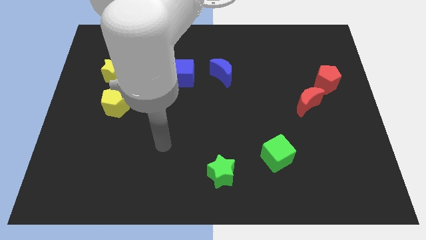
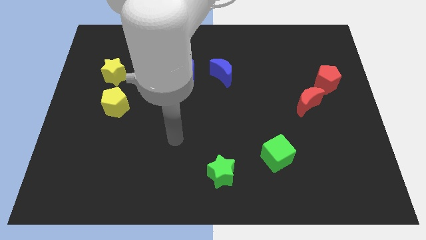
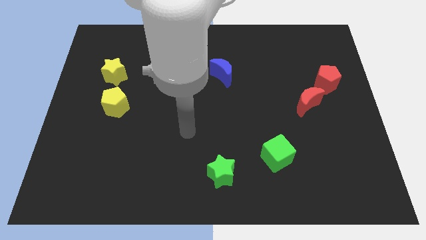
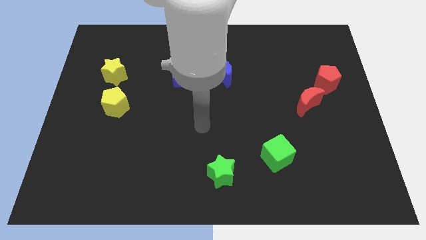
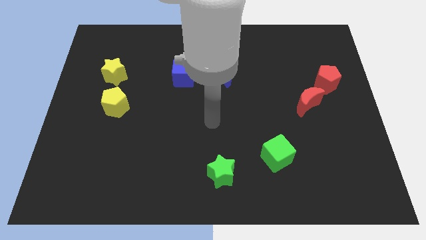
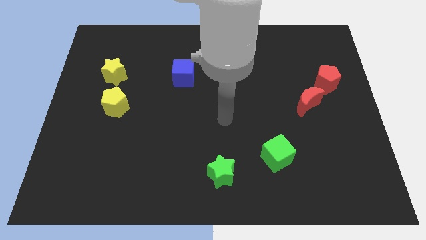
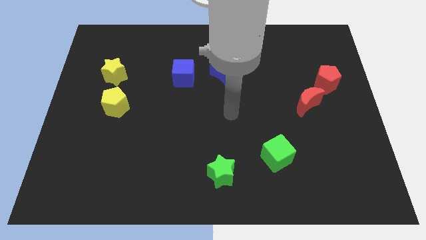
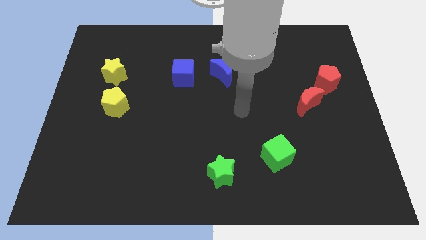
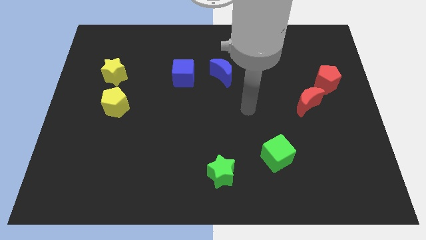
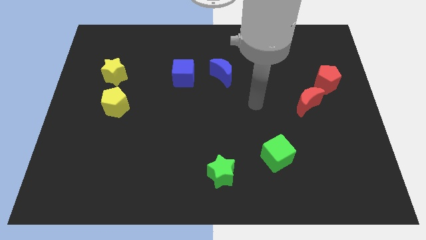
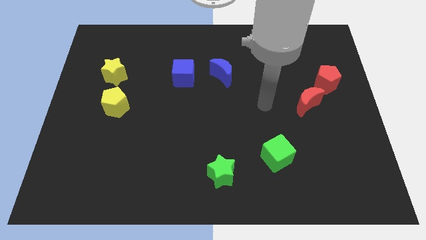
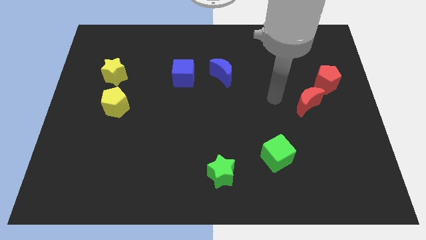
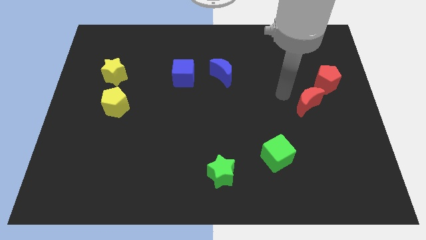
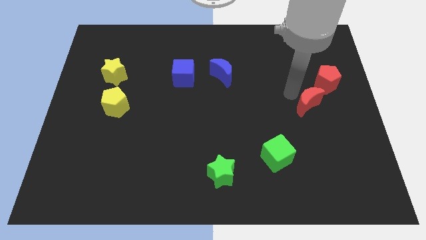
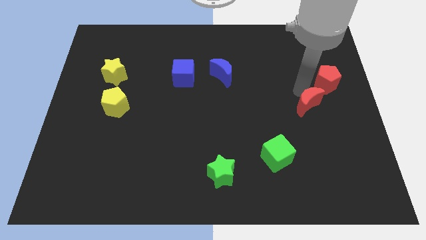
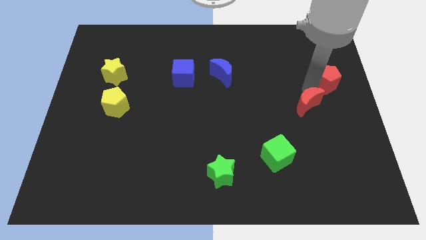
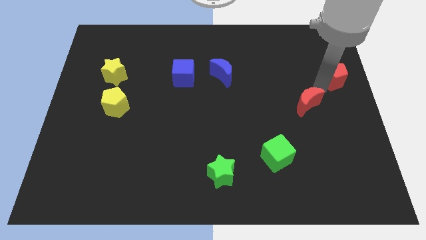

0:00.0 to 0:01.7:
separate the red moon from the red pentagon

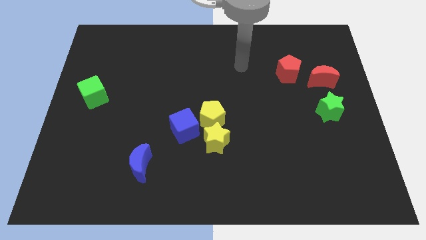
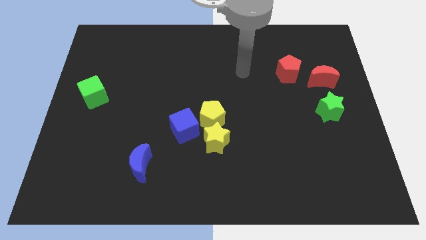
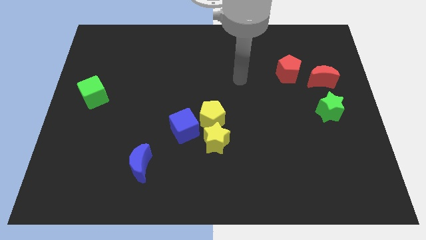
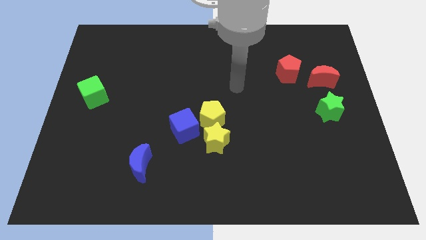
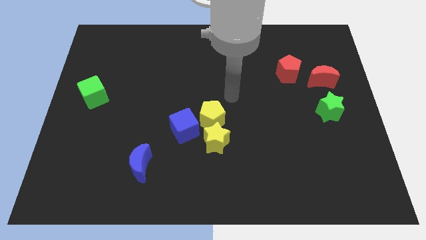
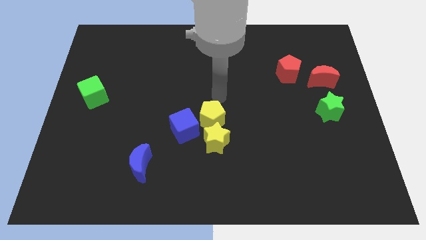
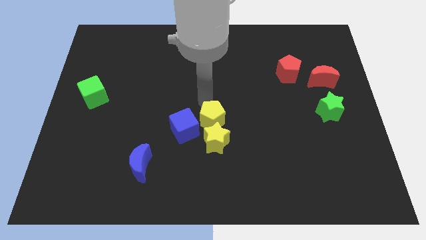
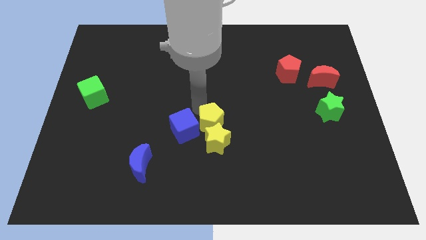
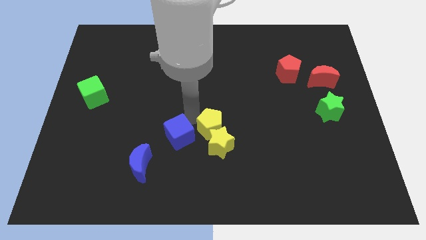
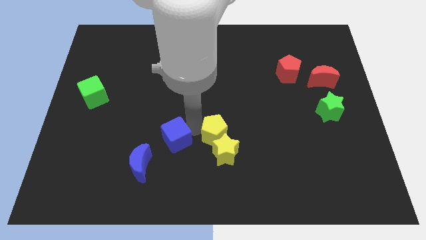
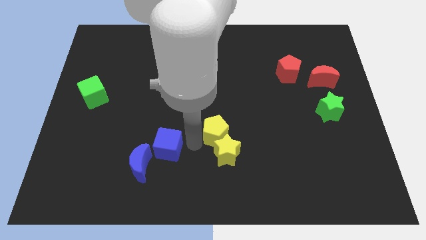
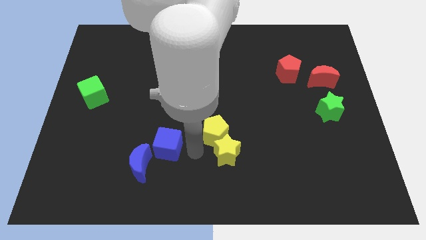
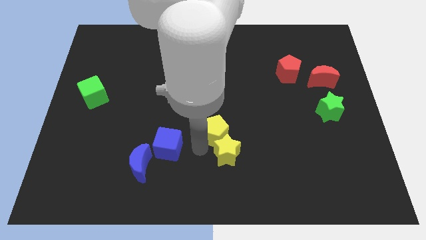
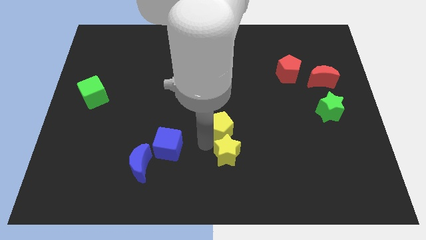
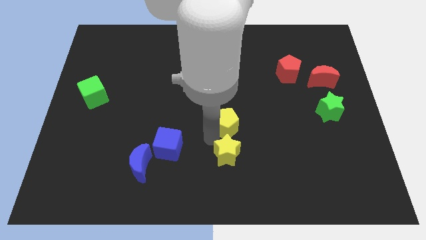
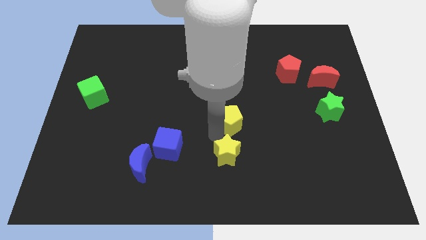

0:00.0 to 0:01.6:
separate the yellow pentagon from the yellow star and blue cube

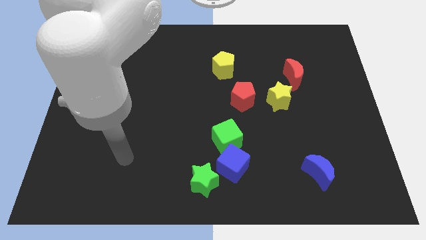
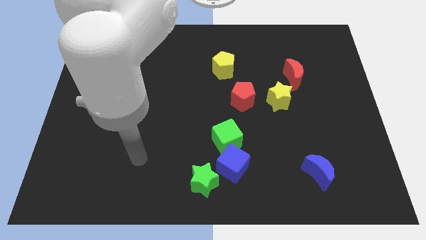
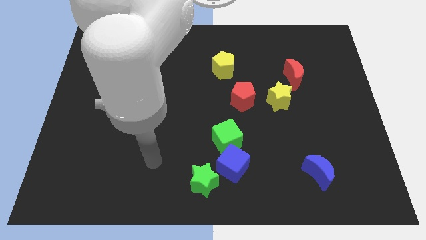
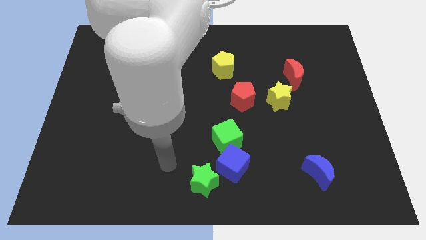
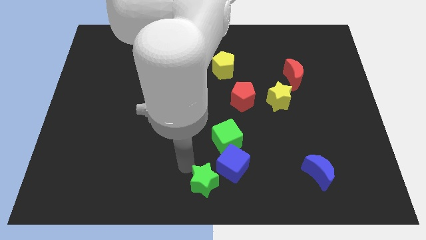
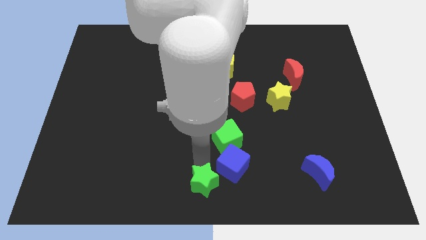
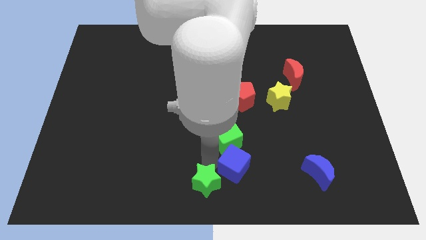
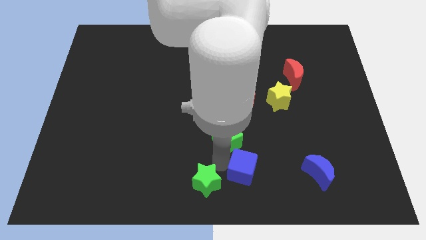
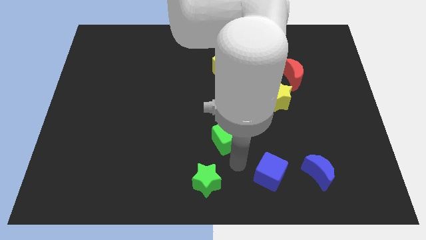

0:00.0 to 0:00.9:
separate the green cube from the blue cube

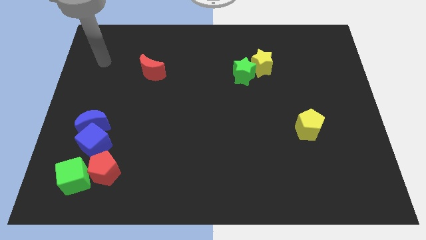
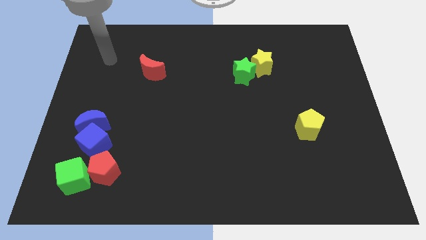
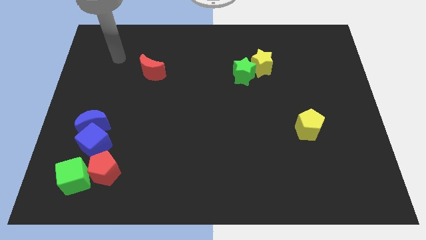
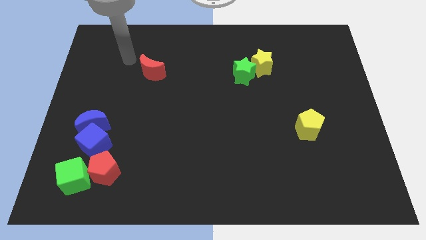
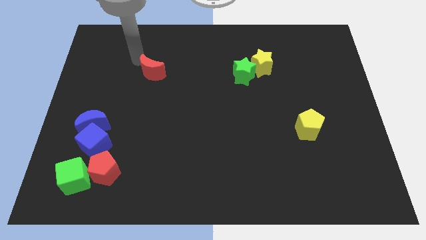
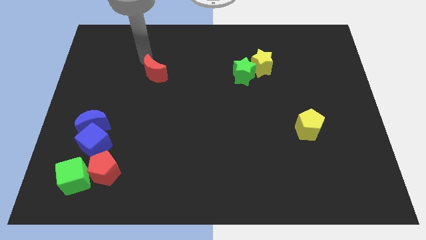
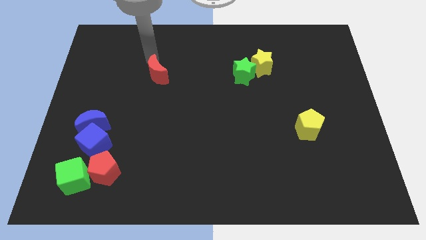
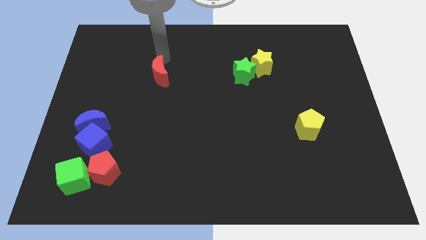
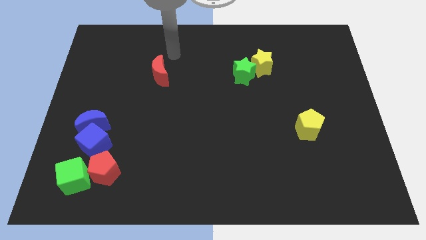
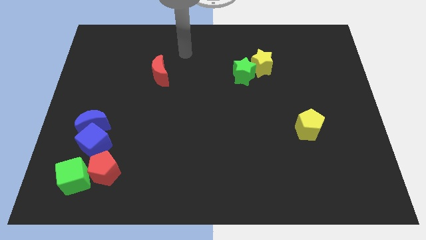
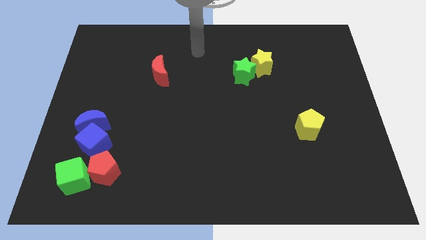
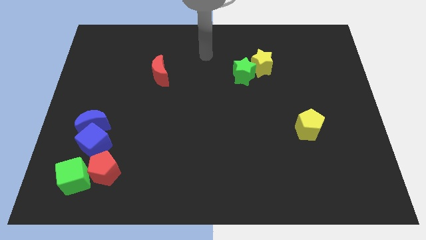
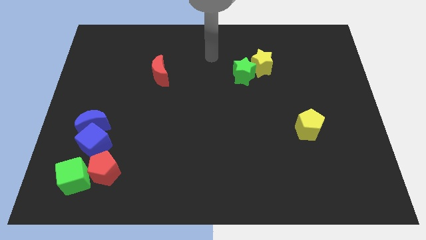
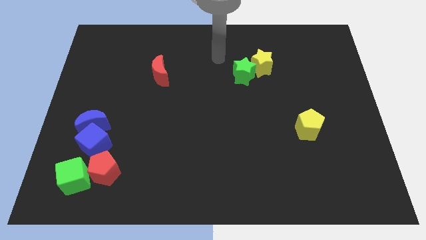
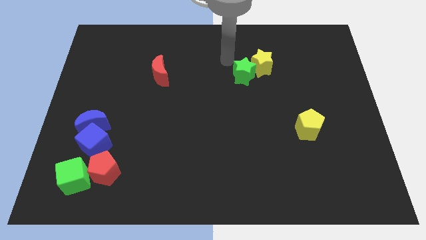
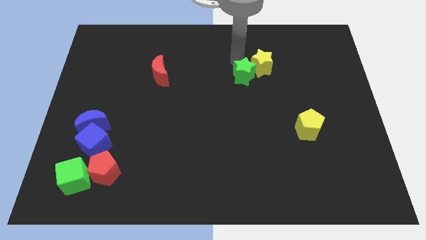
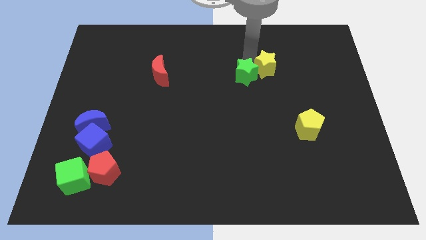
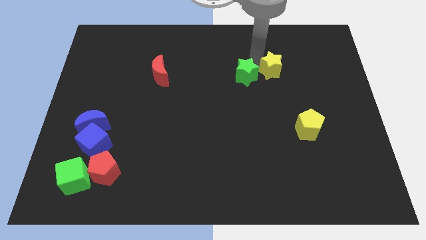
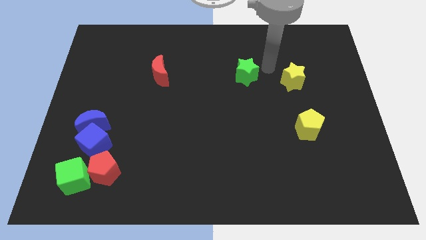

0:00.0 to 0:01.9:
separate the green star from the yellow star

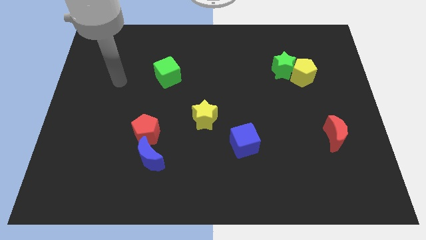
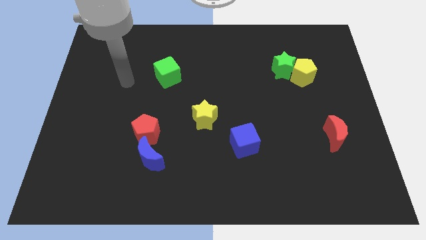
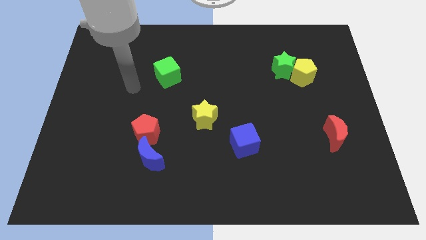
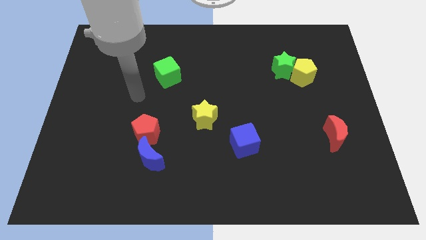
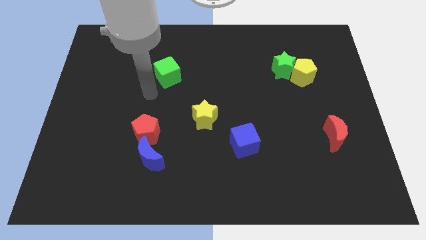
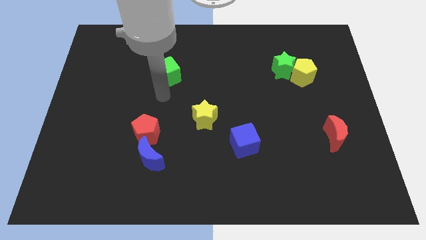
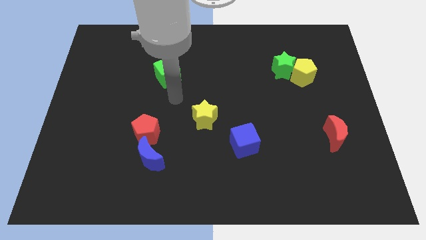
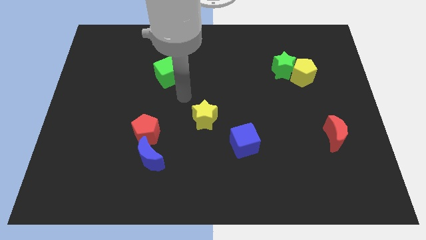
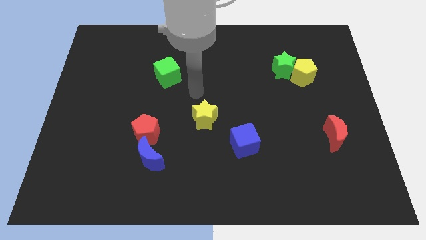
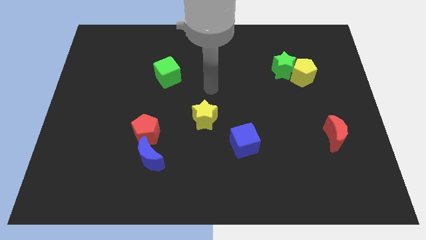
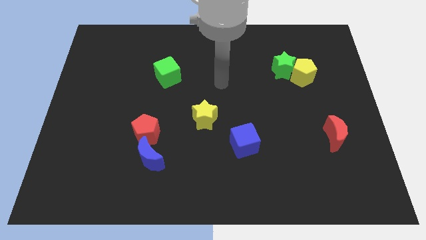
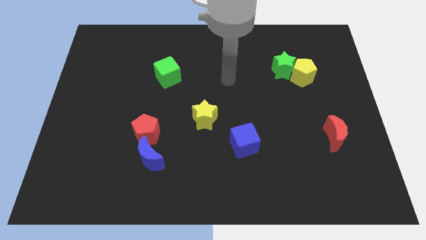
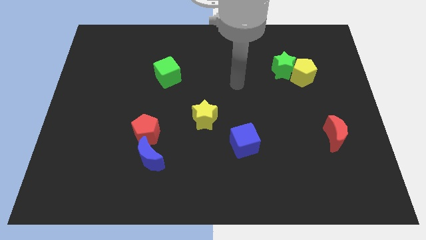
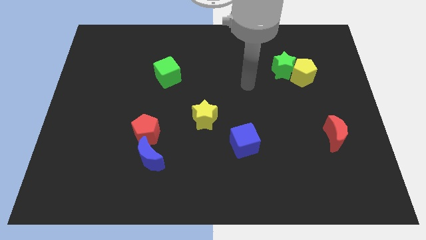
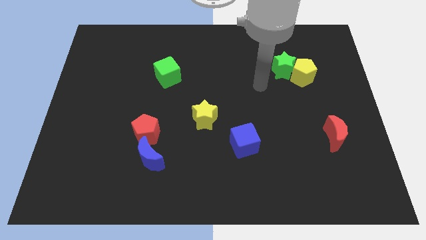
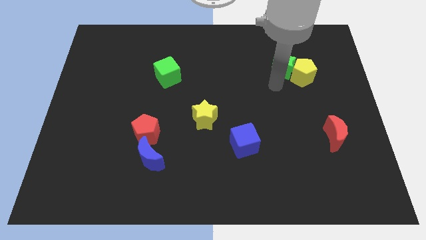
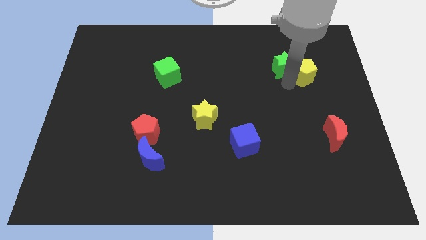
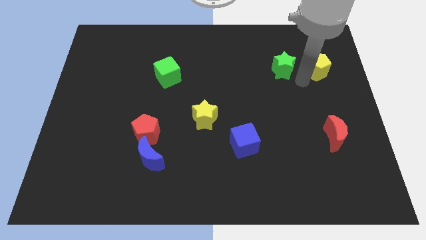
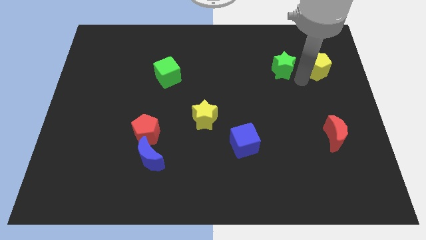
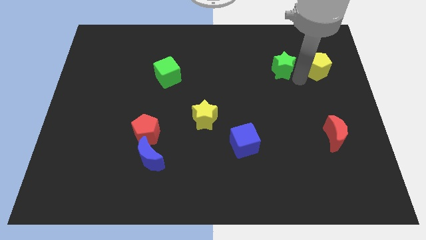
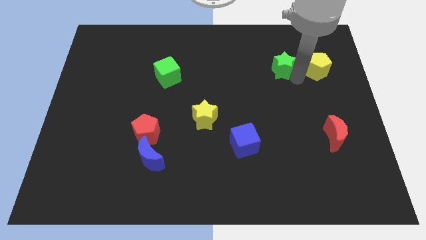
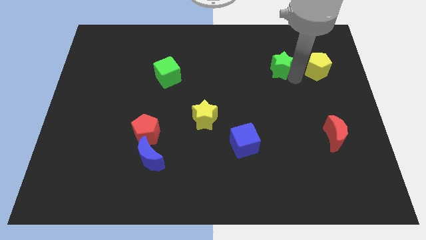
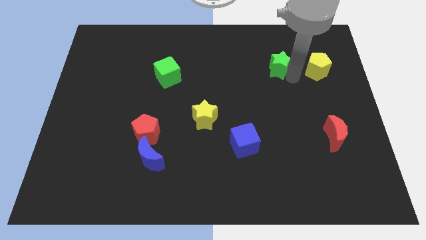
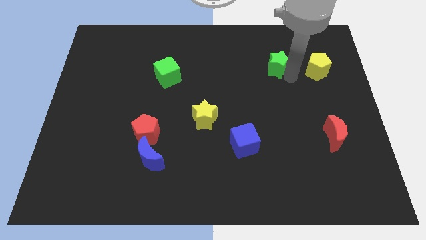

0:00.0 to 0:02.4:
separate the green star from the yellow pentagon

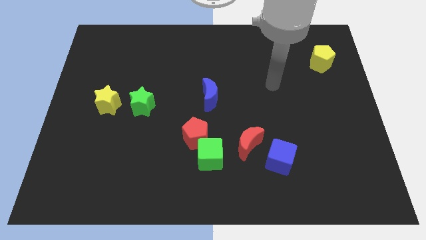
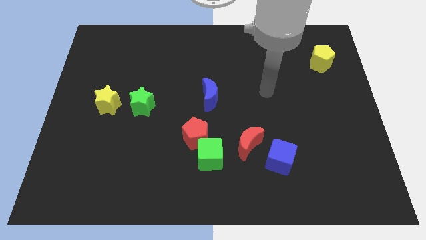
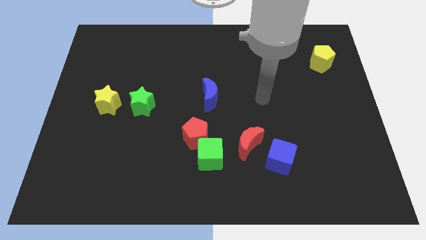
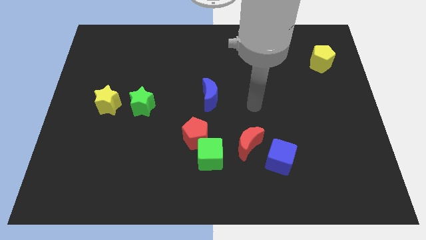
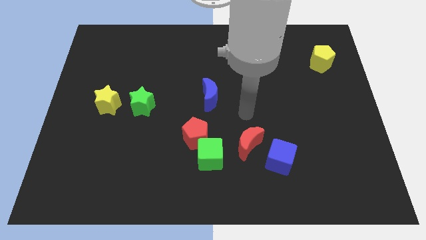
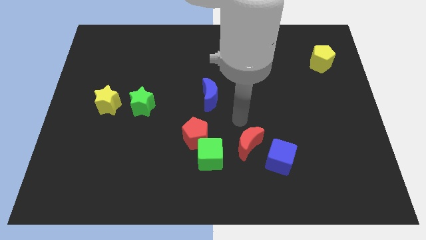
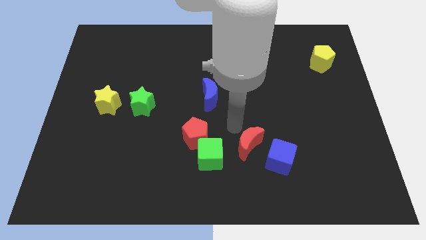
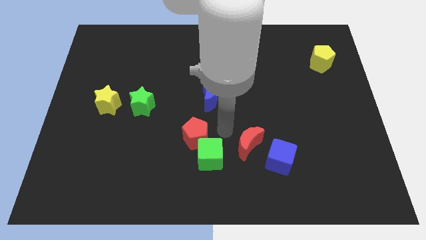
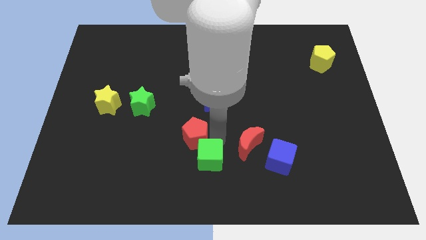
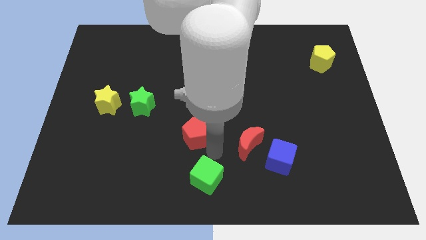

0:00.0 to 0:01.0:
move the red pentagon away from the green cube
